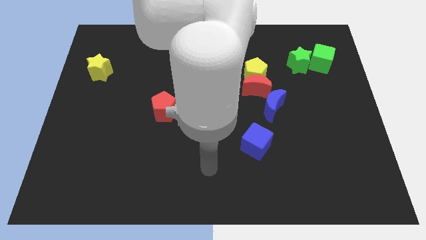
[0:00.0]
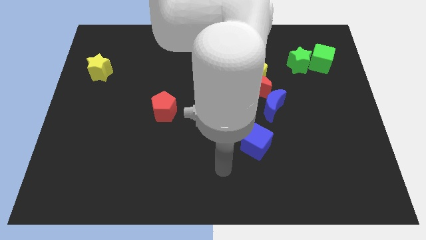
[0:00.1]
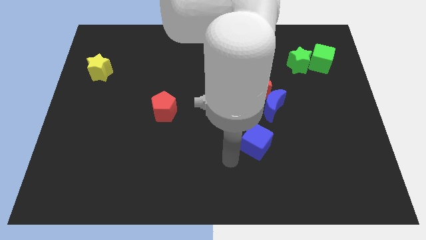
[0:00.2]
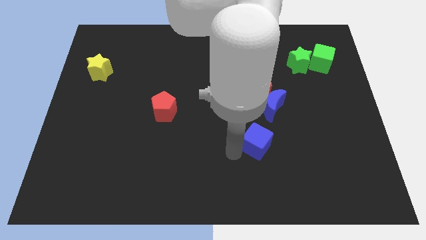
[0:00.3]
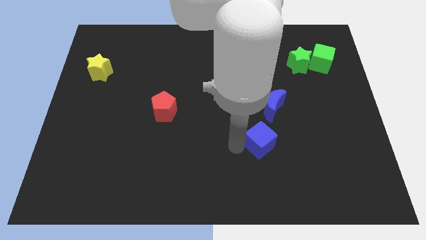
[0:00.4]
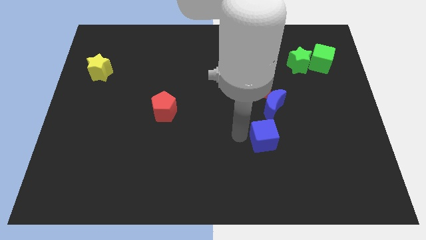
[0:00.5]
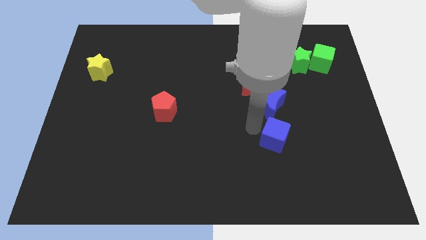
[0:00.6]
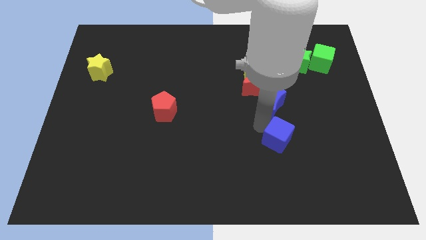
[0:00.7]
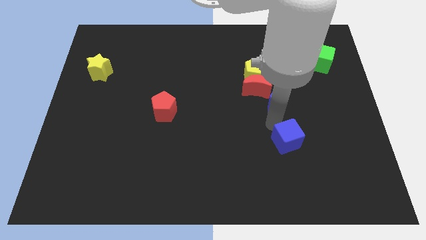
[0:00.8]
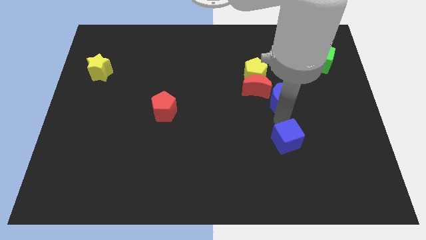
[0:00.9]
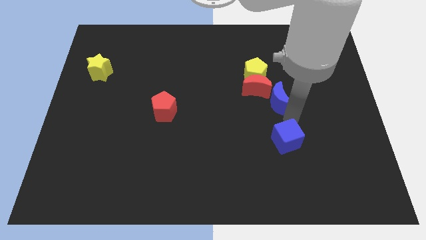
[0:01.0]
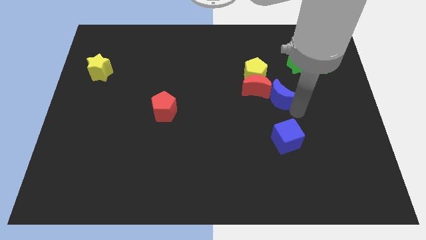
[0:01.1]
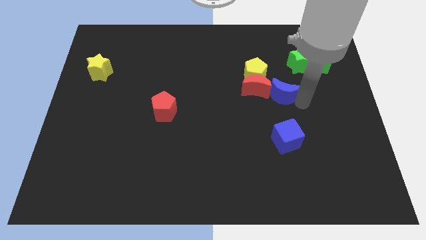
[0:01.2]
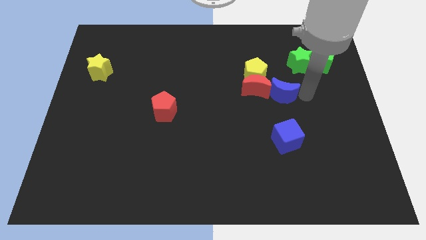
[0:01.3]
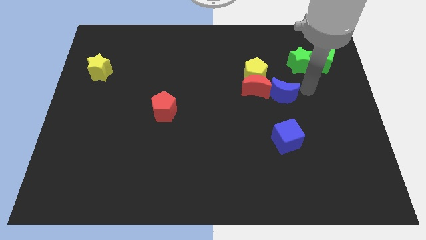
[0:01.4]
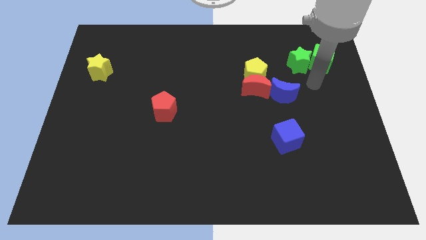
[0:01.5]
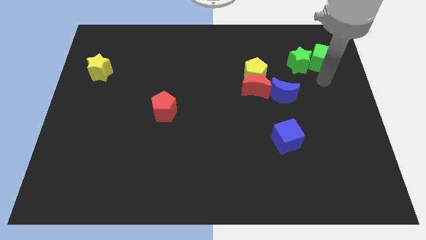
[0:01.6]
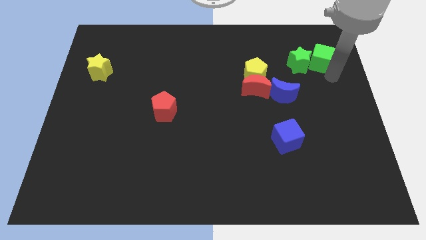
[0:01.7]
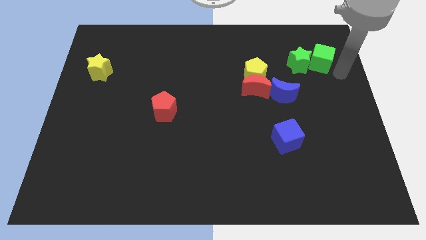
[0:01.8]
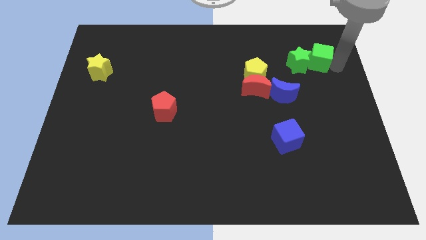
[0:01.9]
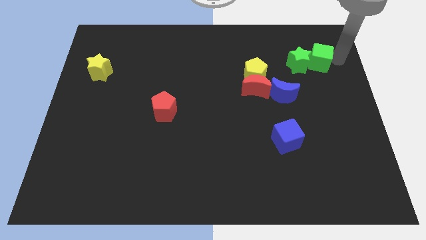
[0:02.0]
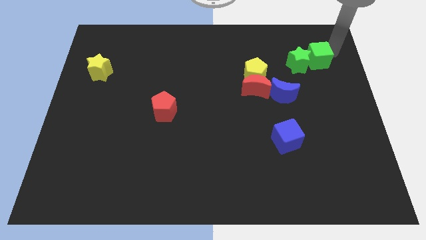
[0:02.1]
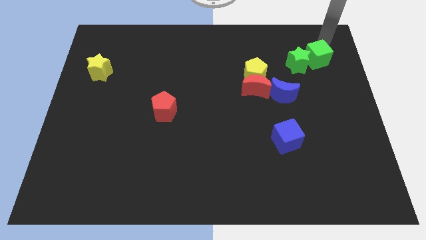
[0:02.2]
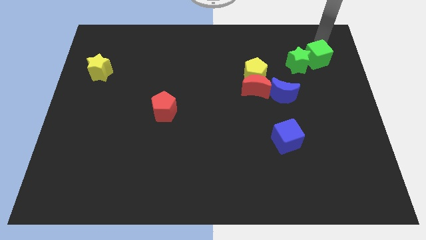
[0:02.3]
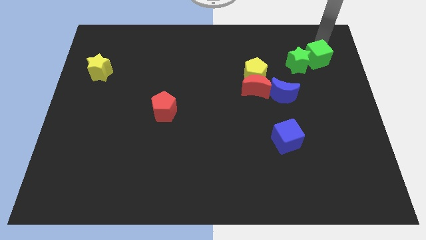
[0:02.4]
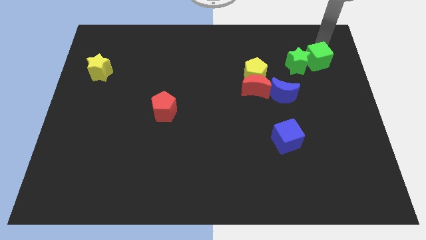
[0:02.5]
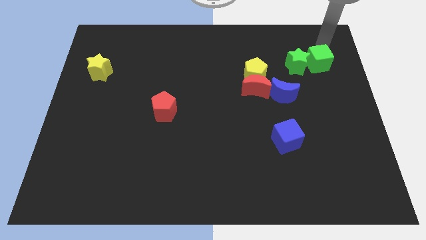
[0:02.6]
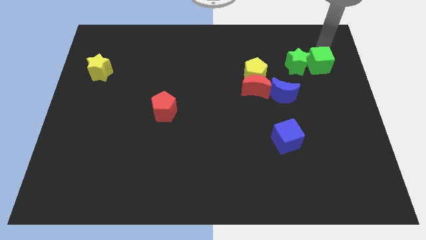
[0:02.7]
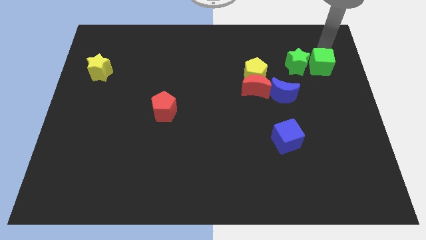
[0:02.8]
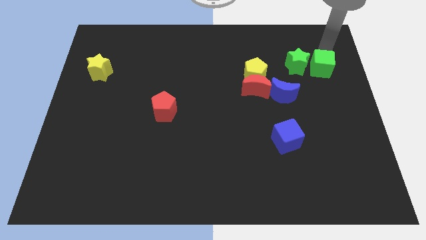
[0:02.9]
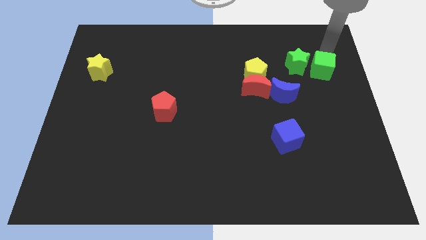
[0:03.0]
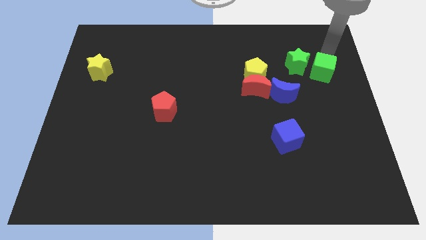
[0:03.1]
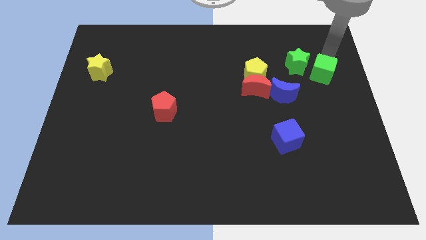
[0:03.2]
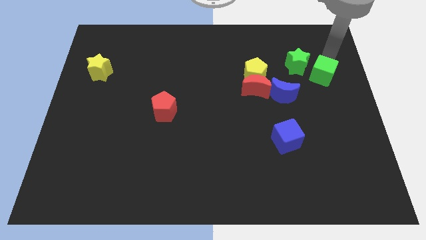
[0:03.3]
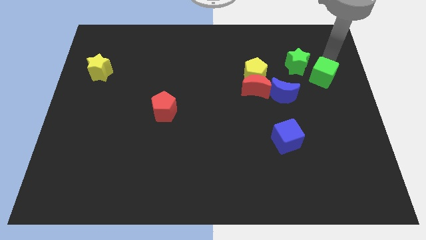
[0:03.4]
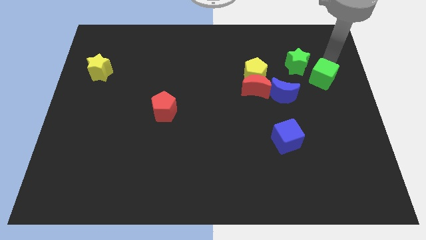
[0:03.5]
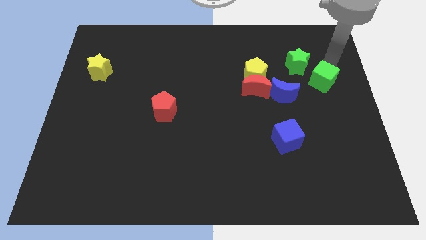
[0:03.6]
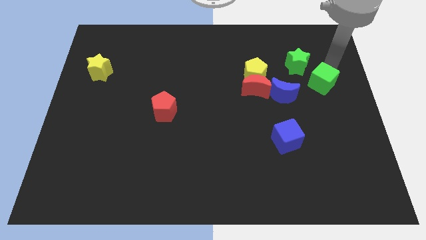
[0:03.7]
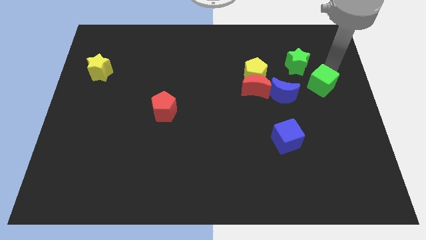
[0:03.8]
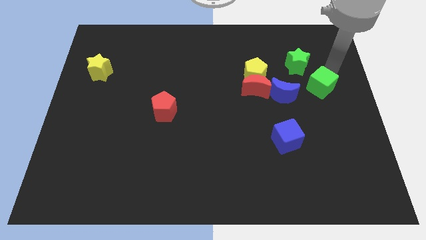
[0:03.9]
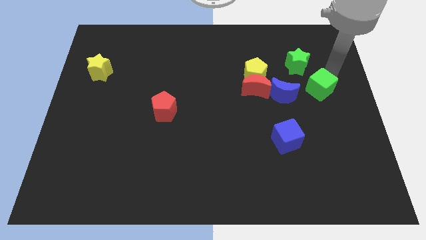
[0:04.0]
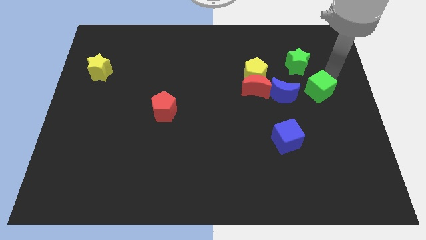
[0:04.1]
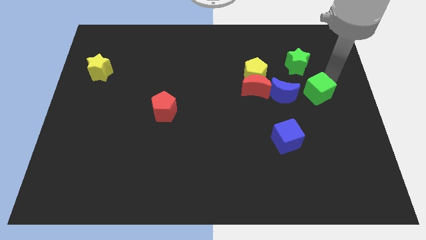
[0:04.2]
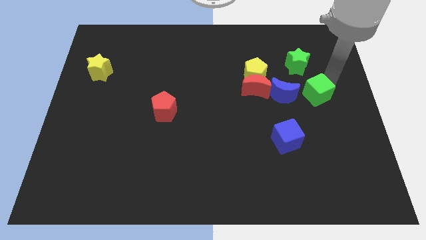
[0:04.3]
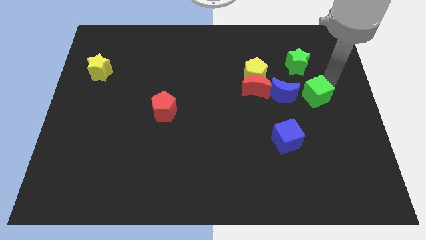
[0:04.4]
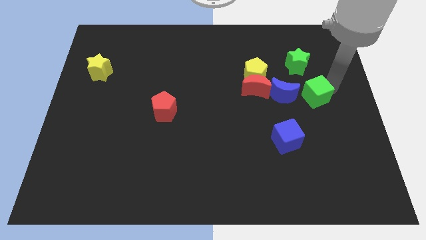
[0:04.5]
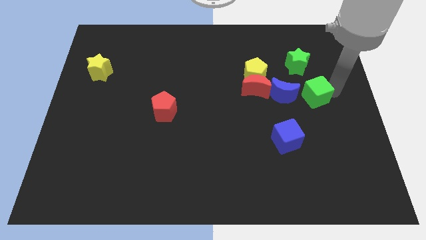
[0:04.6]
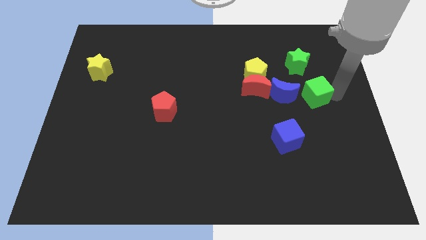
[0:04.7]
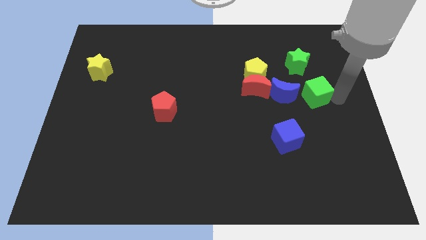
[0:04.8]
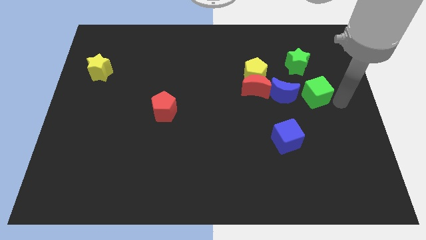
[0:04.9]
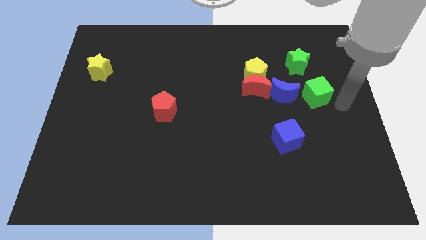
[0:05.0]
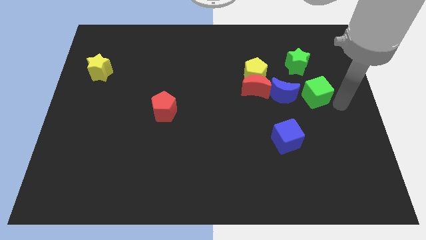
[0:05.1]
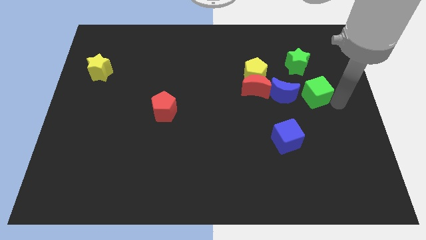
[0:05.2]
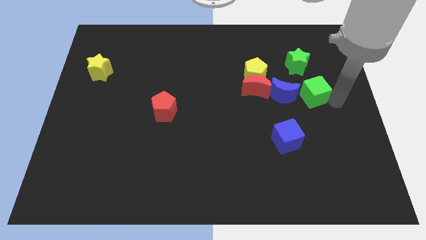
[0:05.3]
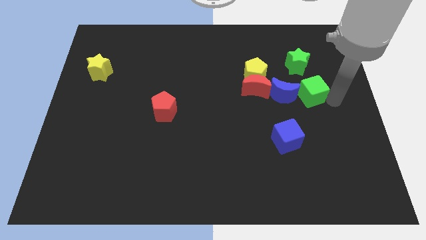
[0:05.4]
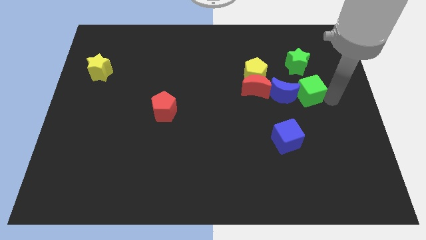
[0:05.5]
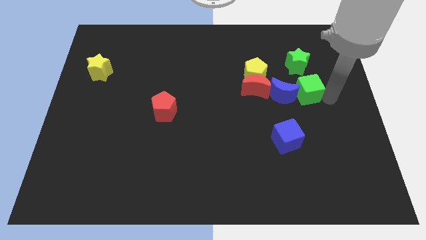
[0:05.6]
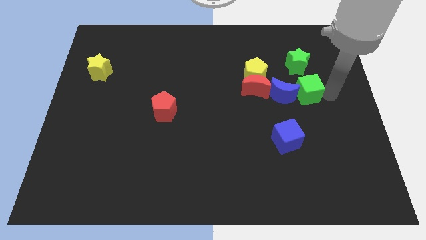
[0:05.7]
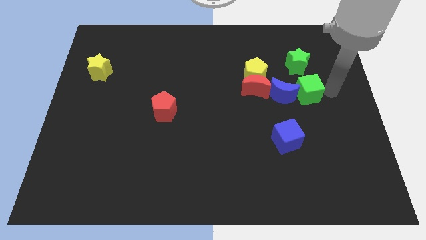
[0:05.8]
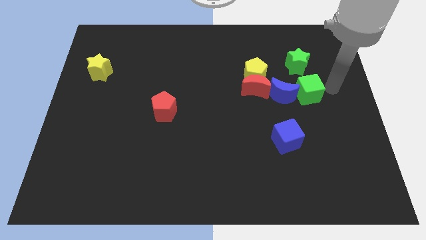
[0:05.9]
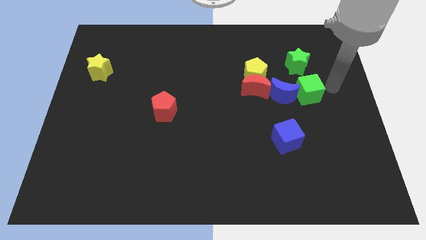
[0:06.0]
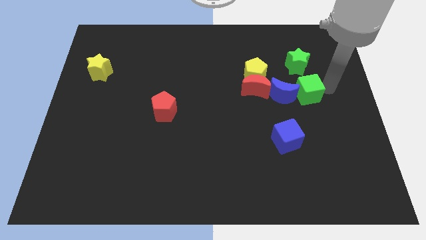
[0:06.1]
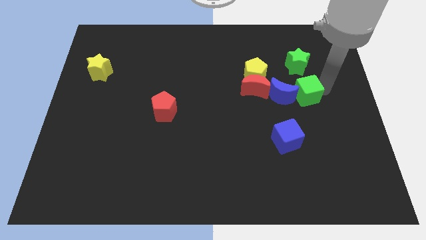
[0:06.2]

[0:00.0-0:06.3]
push the green cube towards the blue moon

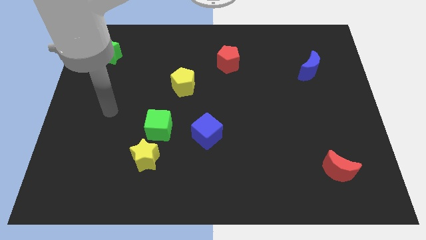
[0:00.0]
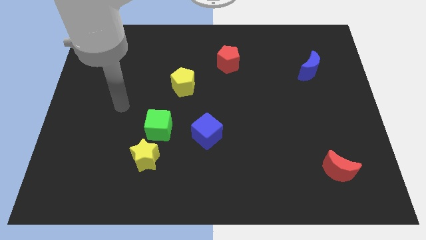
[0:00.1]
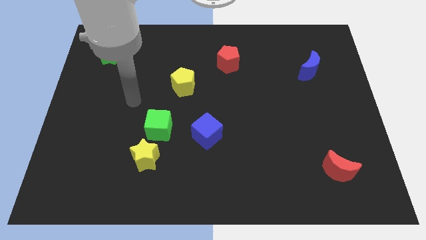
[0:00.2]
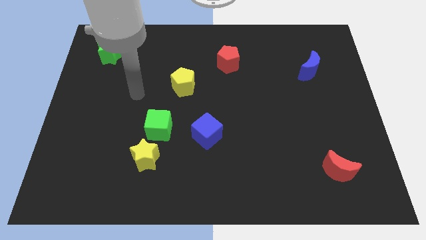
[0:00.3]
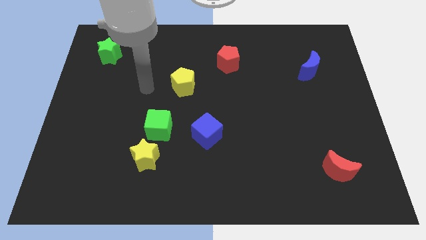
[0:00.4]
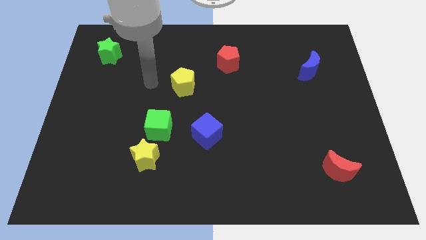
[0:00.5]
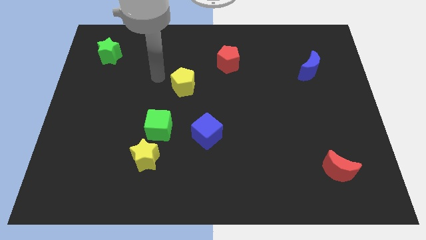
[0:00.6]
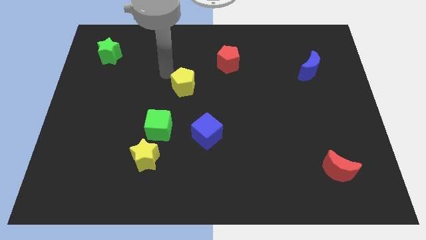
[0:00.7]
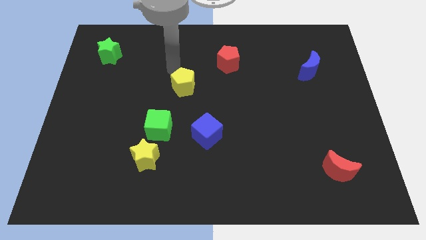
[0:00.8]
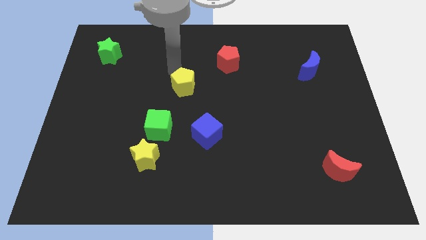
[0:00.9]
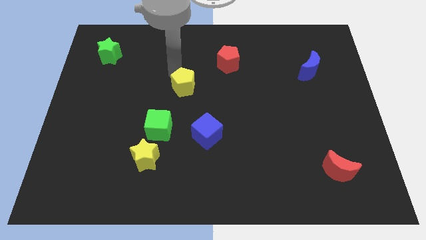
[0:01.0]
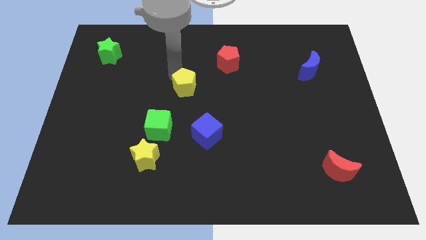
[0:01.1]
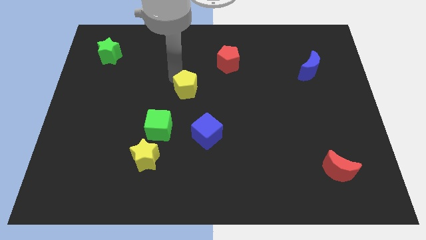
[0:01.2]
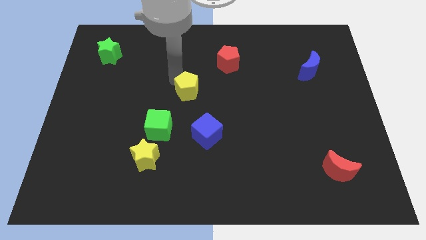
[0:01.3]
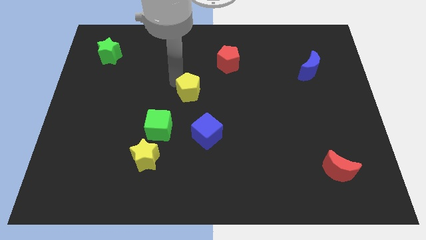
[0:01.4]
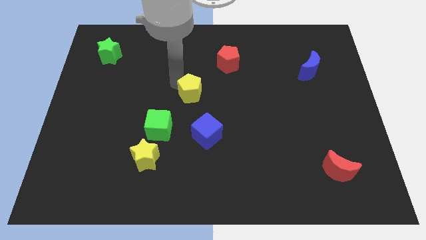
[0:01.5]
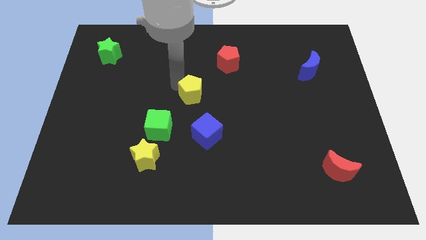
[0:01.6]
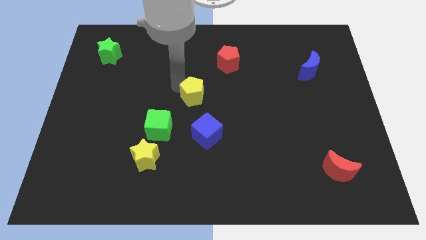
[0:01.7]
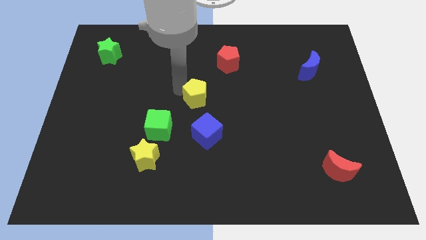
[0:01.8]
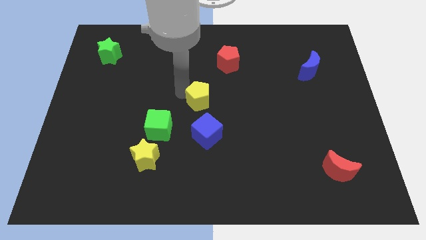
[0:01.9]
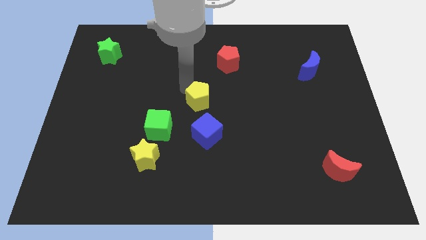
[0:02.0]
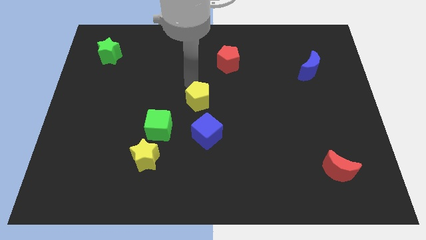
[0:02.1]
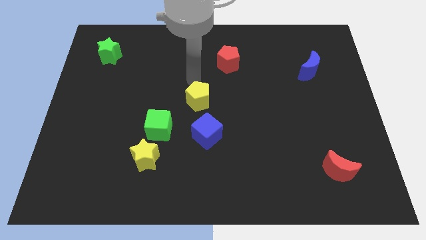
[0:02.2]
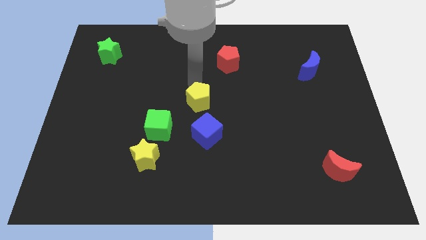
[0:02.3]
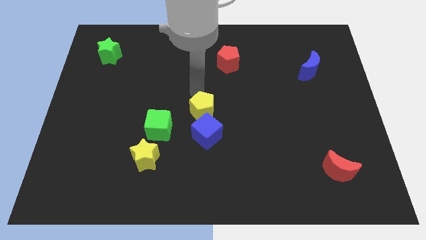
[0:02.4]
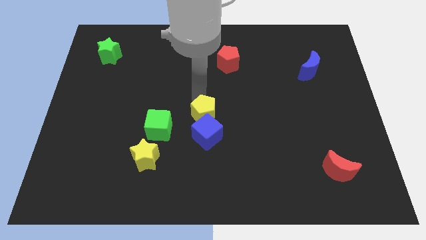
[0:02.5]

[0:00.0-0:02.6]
move the yellow pentagon next to the blue cube
